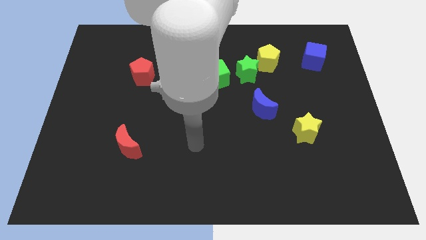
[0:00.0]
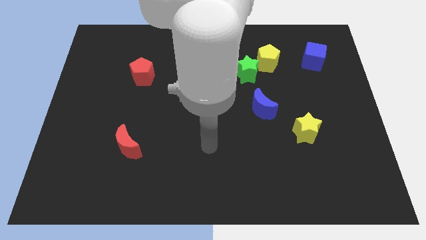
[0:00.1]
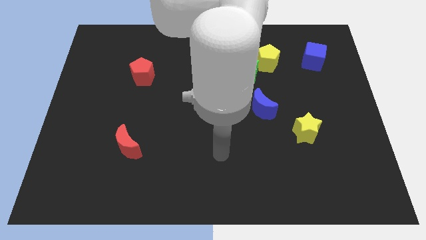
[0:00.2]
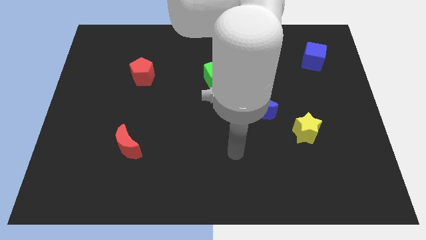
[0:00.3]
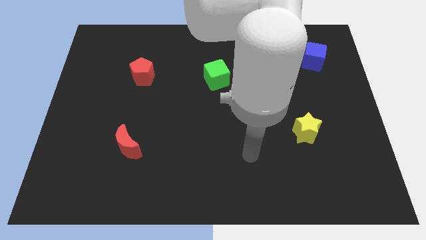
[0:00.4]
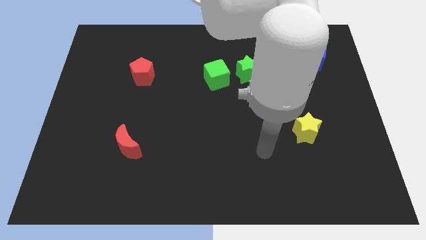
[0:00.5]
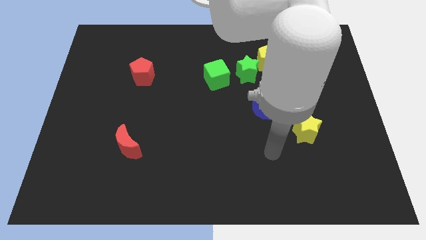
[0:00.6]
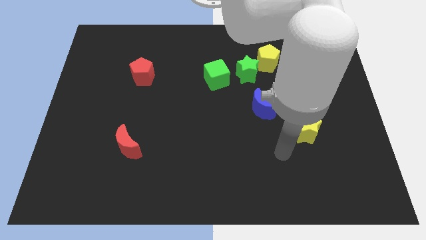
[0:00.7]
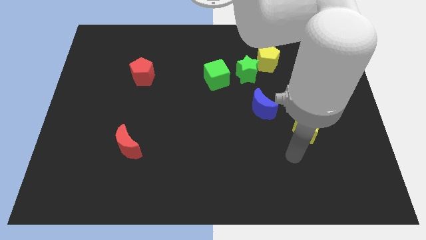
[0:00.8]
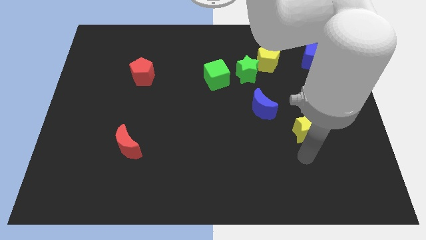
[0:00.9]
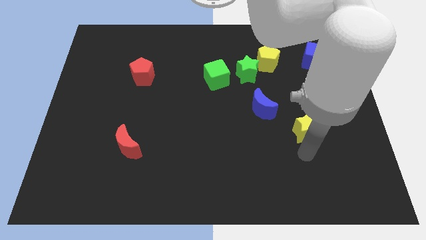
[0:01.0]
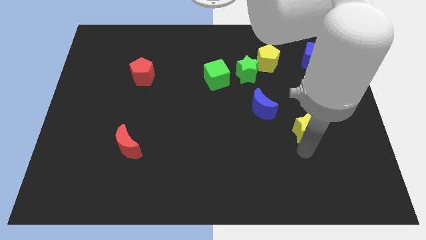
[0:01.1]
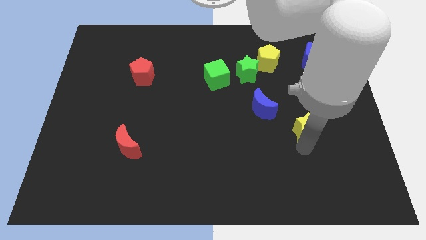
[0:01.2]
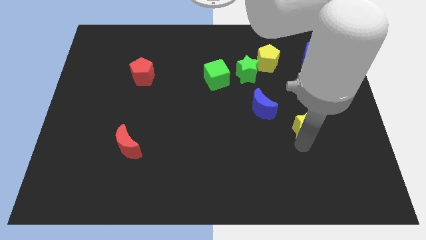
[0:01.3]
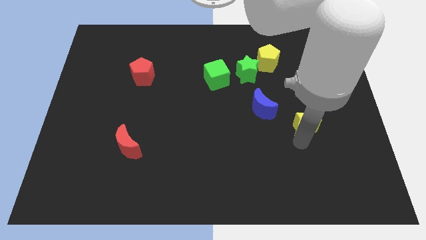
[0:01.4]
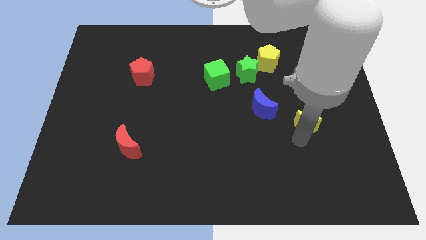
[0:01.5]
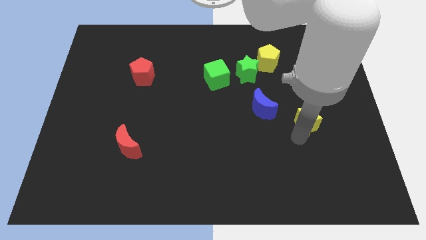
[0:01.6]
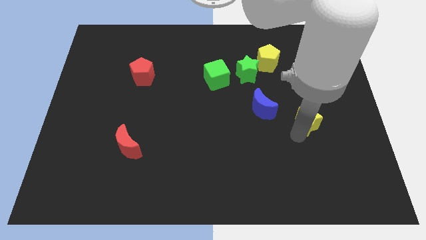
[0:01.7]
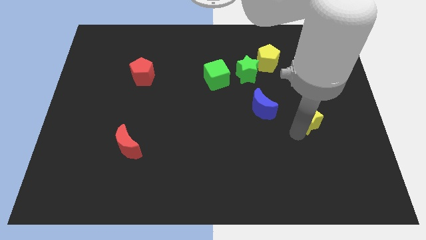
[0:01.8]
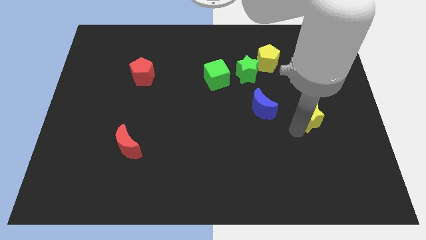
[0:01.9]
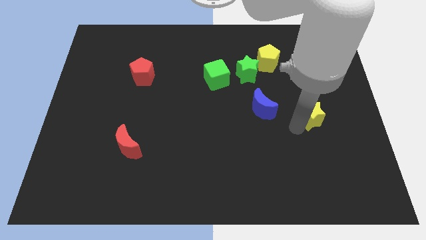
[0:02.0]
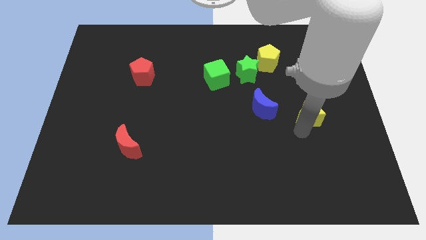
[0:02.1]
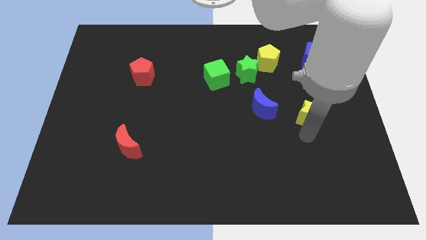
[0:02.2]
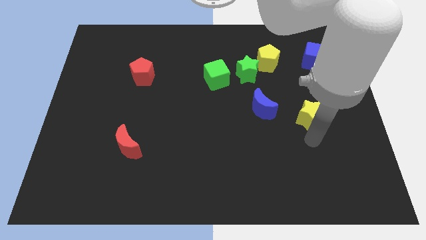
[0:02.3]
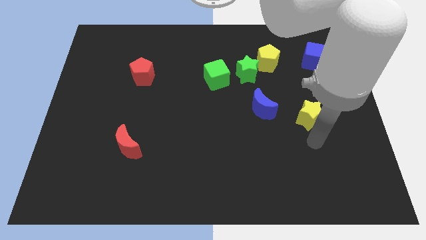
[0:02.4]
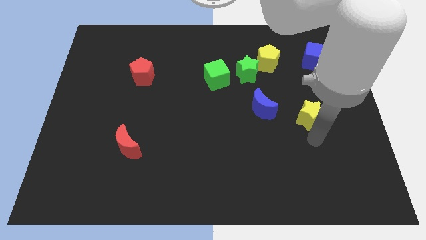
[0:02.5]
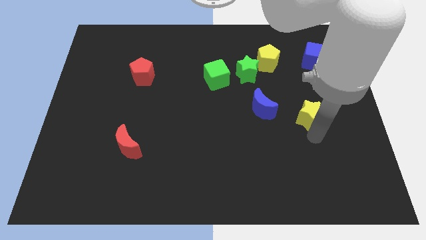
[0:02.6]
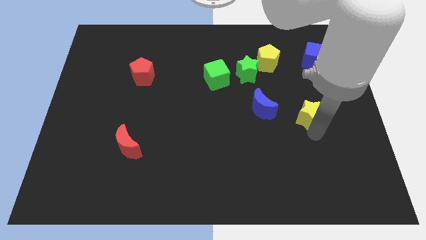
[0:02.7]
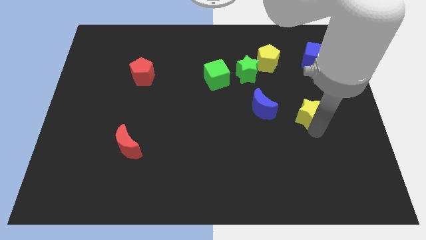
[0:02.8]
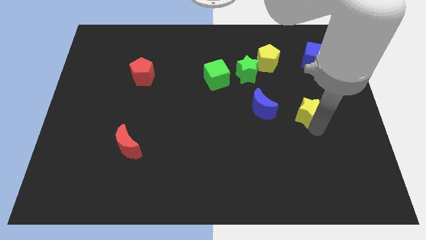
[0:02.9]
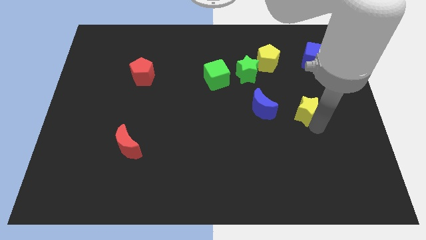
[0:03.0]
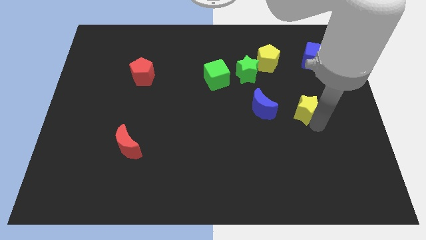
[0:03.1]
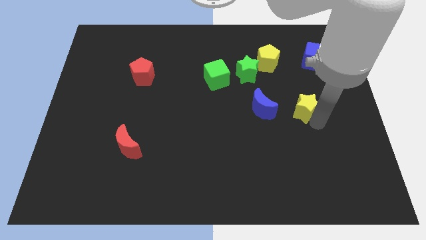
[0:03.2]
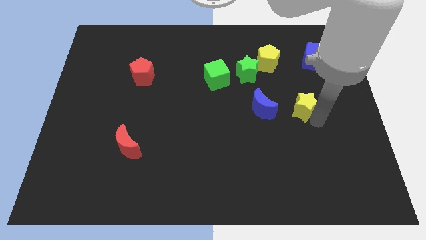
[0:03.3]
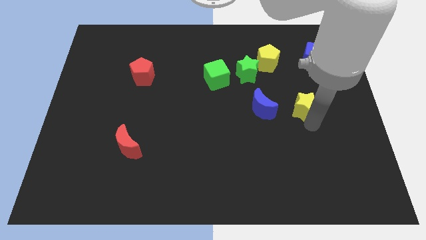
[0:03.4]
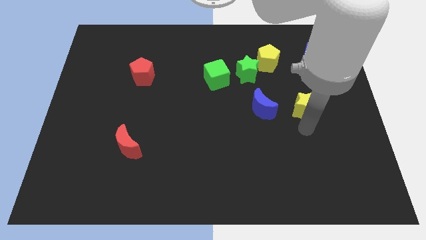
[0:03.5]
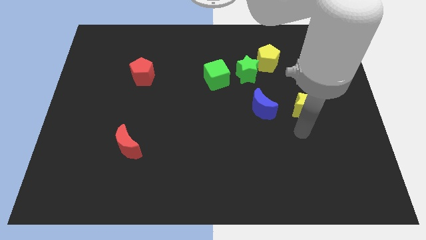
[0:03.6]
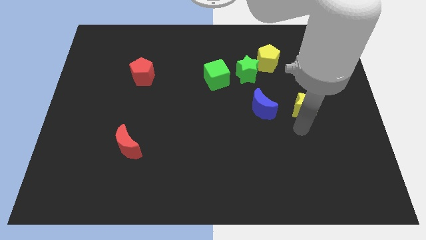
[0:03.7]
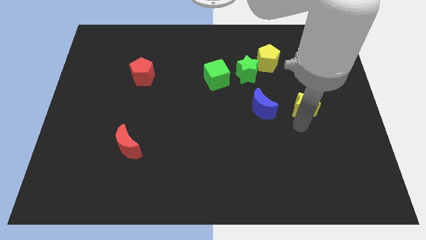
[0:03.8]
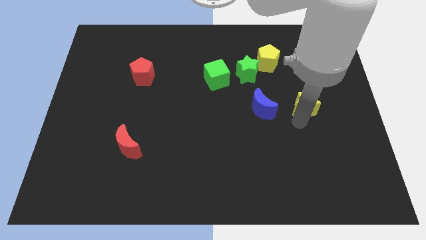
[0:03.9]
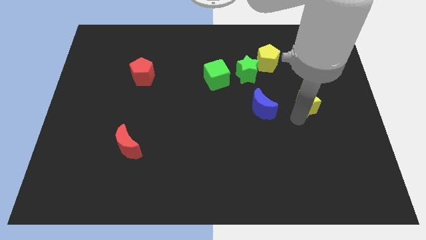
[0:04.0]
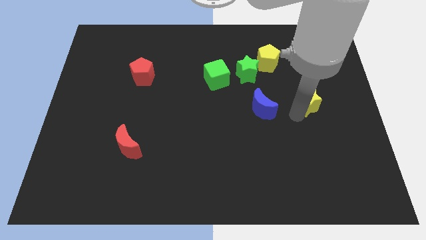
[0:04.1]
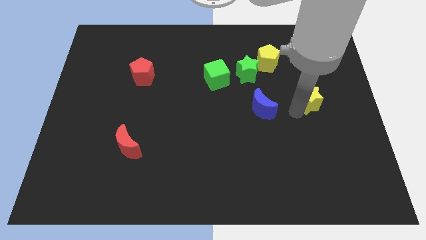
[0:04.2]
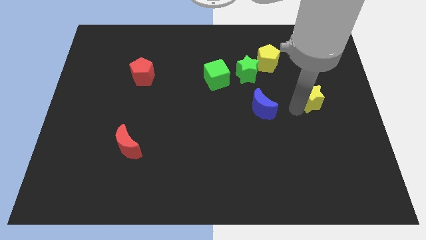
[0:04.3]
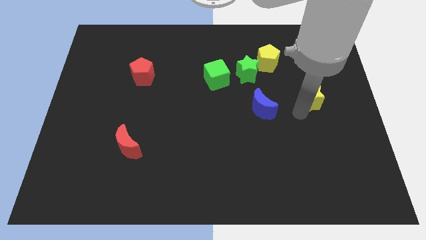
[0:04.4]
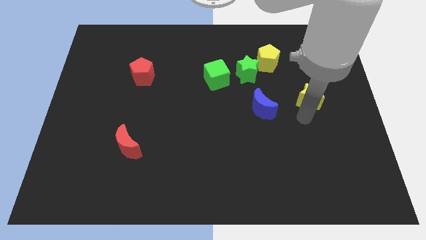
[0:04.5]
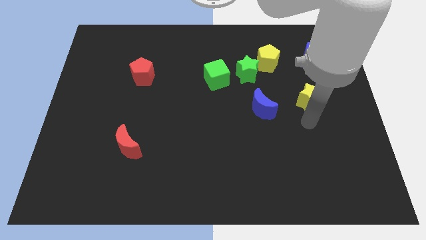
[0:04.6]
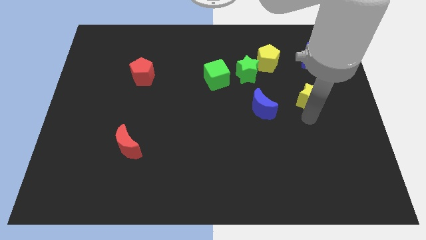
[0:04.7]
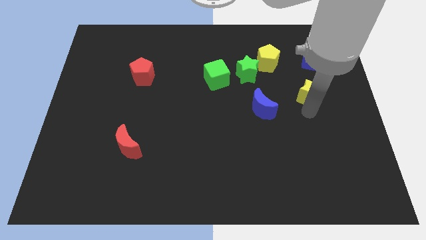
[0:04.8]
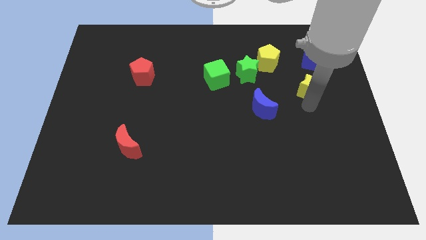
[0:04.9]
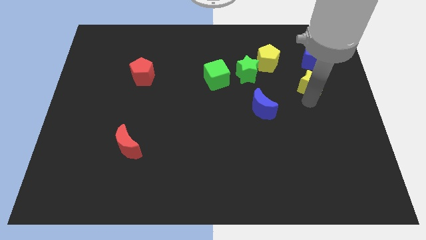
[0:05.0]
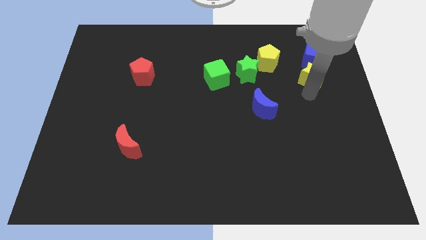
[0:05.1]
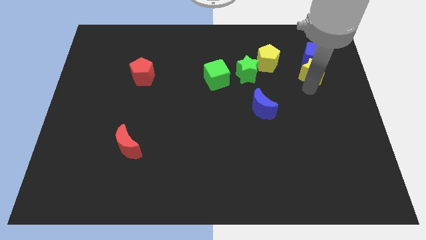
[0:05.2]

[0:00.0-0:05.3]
push the yellow star towards the blue cube

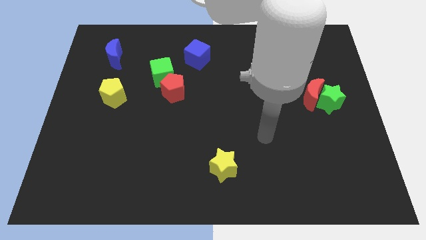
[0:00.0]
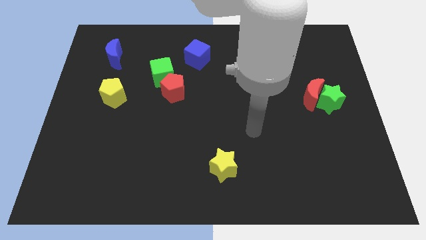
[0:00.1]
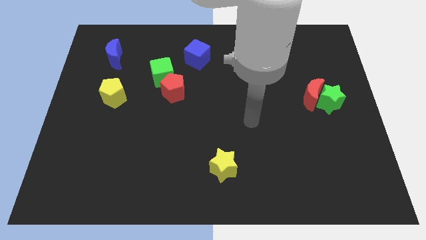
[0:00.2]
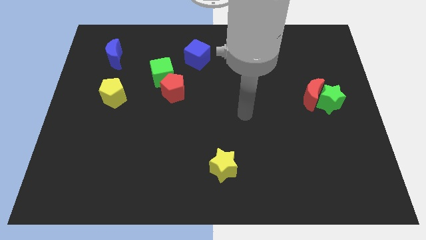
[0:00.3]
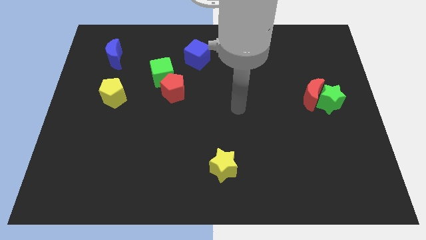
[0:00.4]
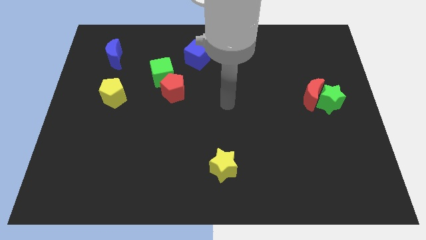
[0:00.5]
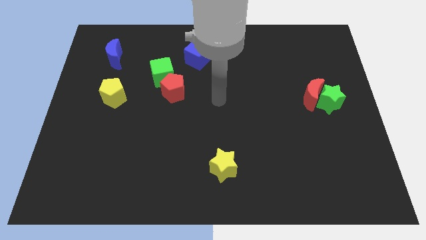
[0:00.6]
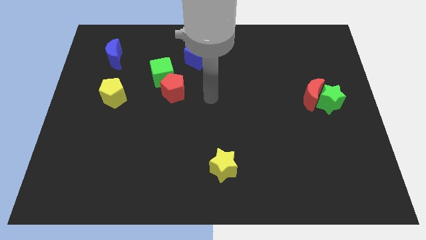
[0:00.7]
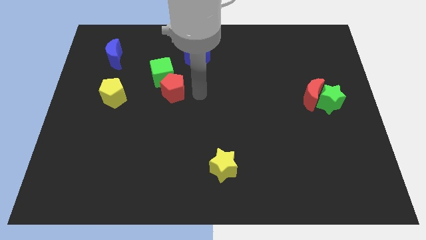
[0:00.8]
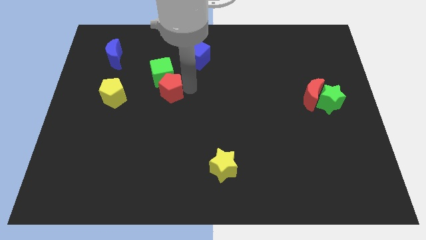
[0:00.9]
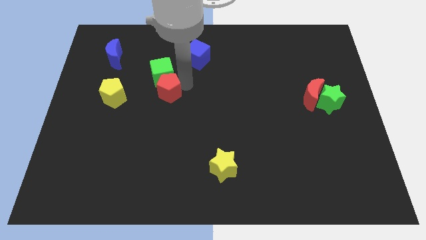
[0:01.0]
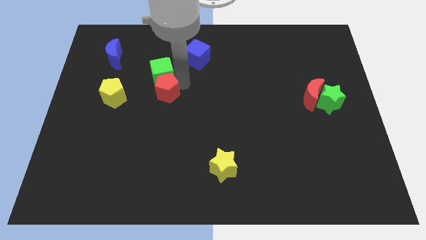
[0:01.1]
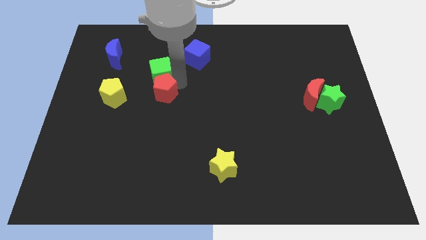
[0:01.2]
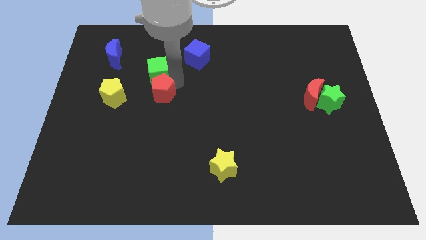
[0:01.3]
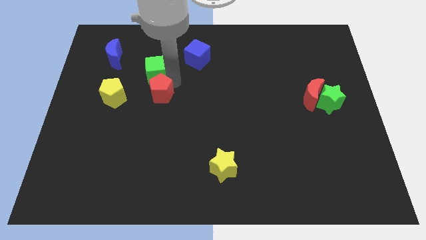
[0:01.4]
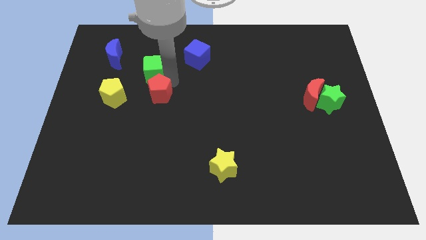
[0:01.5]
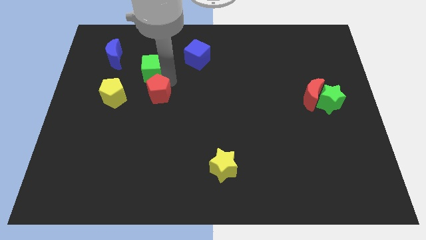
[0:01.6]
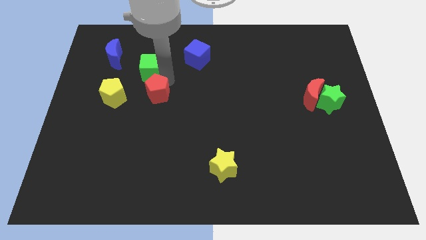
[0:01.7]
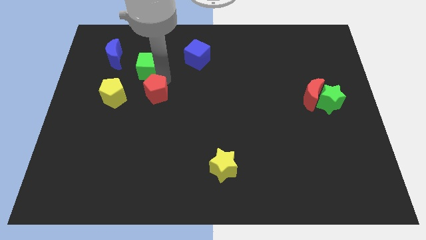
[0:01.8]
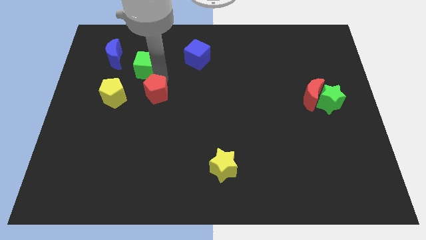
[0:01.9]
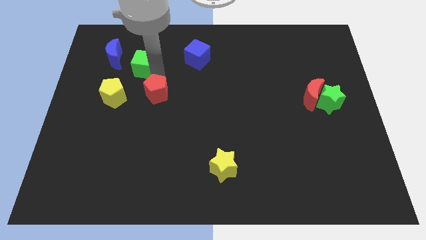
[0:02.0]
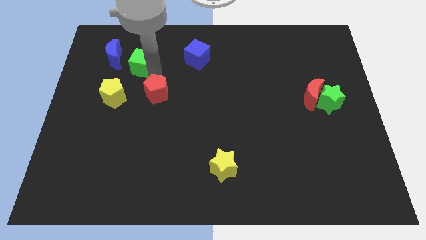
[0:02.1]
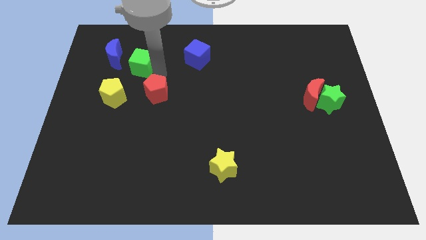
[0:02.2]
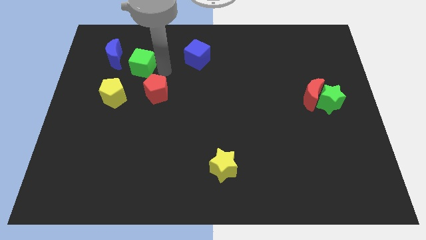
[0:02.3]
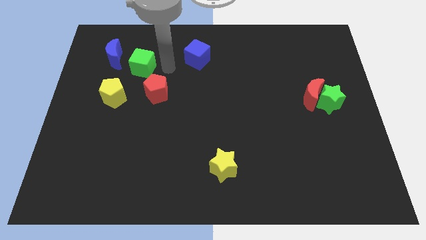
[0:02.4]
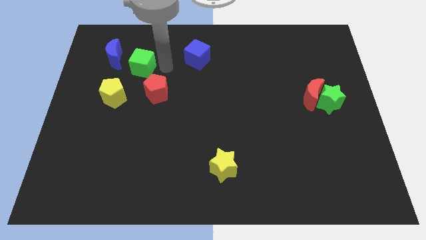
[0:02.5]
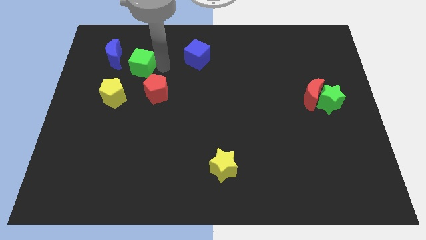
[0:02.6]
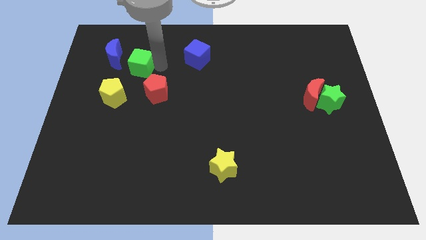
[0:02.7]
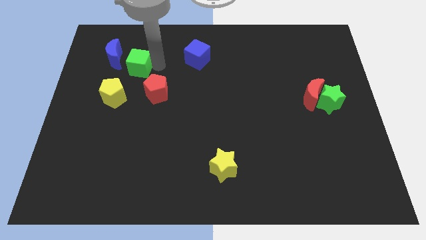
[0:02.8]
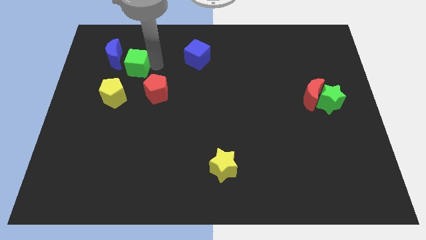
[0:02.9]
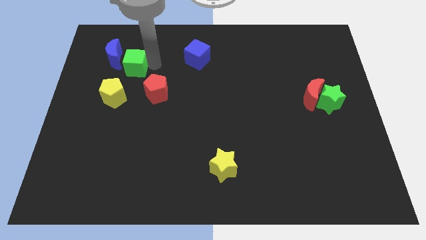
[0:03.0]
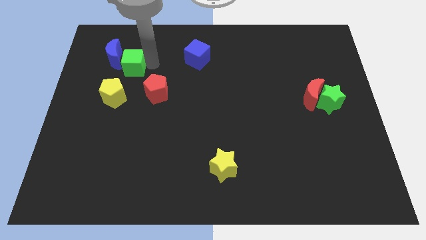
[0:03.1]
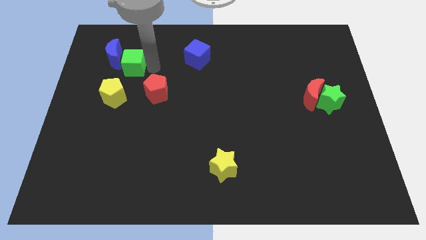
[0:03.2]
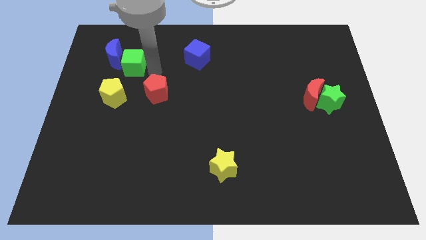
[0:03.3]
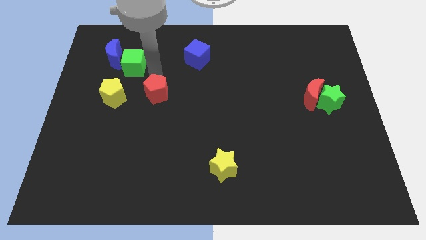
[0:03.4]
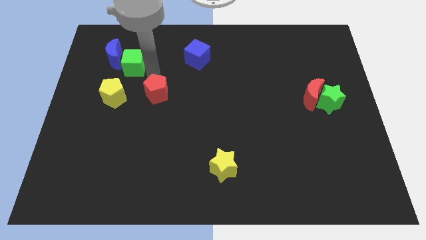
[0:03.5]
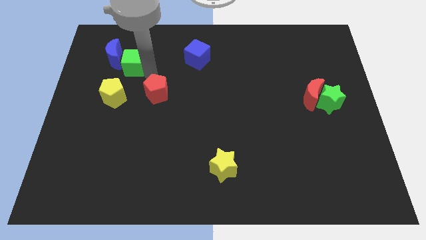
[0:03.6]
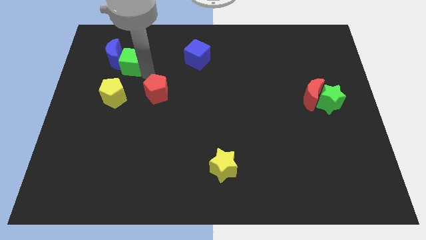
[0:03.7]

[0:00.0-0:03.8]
put the green cube next to the blue moon
